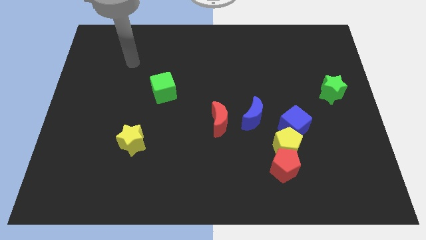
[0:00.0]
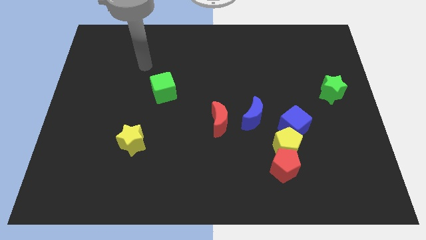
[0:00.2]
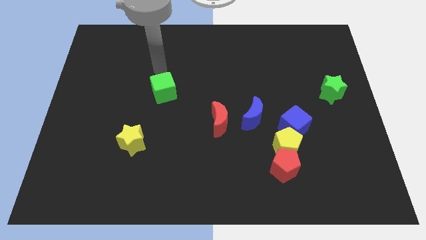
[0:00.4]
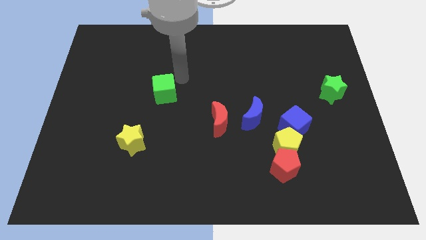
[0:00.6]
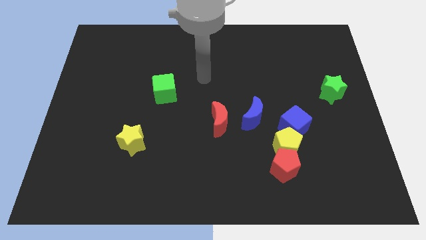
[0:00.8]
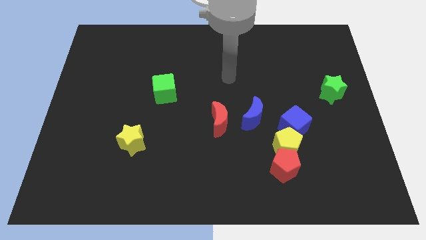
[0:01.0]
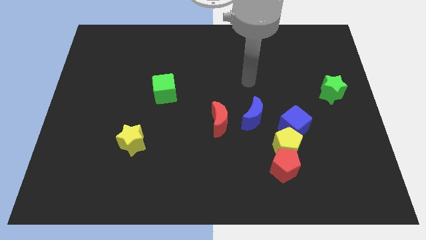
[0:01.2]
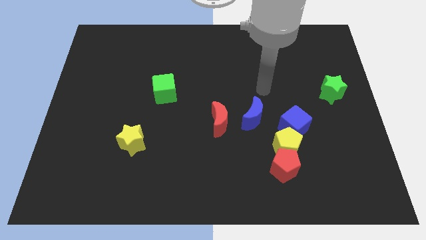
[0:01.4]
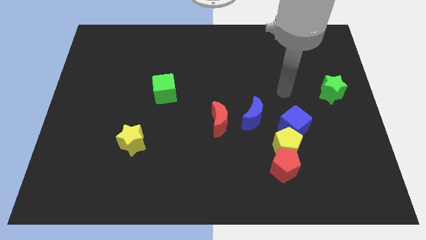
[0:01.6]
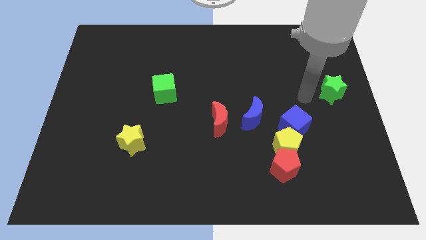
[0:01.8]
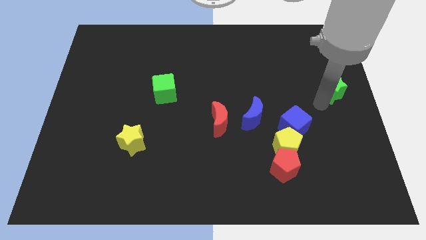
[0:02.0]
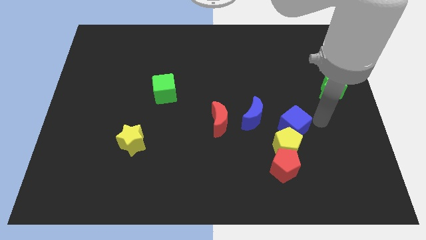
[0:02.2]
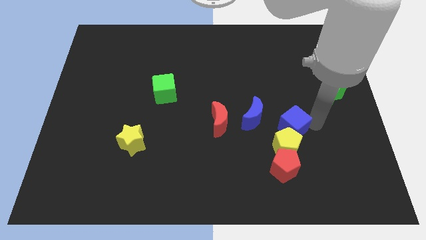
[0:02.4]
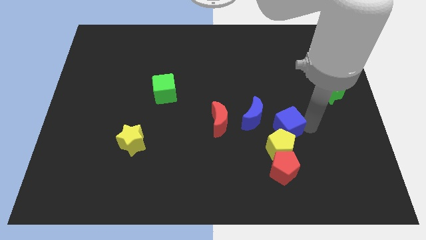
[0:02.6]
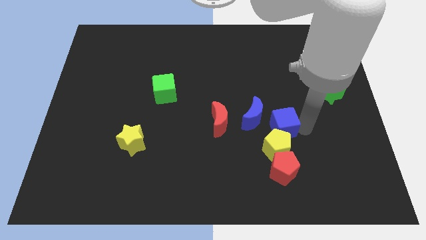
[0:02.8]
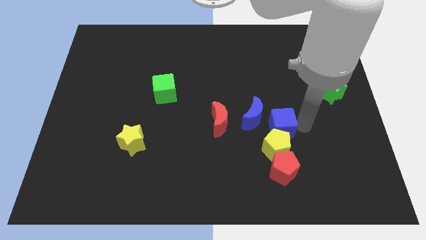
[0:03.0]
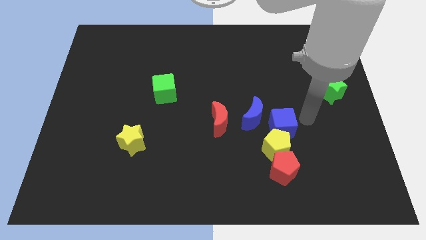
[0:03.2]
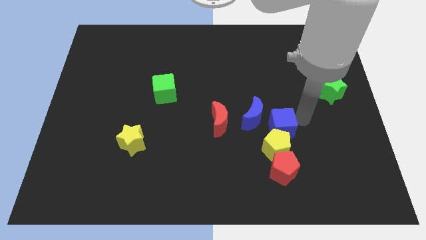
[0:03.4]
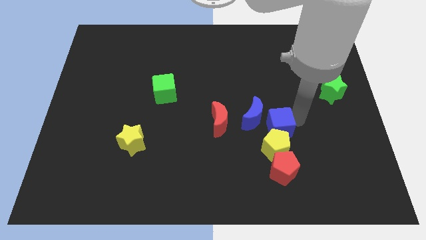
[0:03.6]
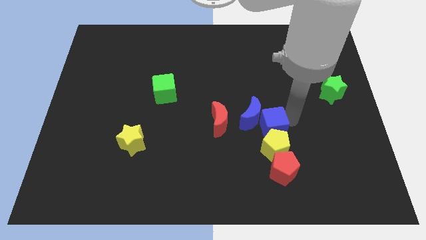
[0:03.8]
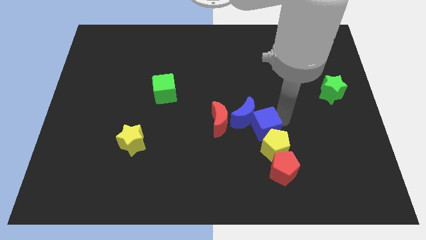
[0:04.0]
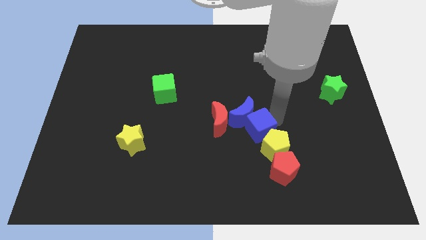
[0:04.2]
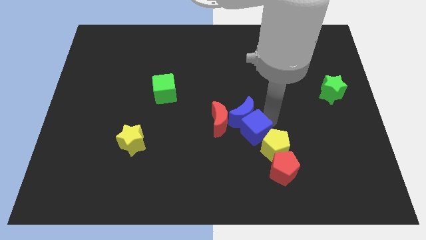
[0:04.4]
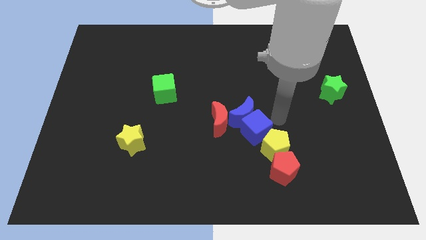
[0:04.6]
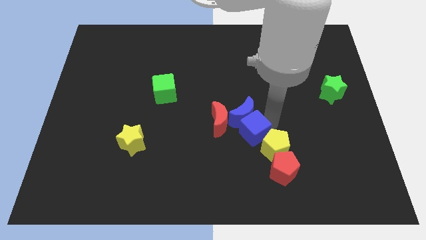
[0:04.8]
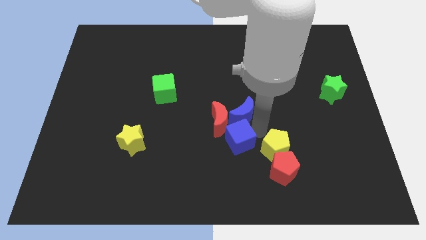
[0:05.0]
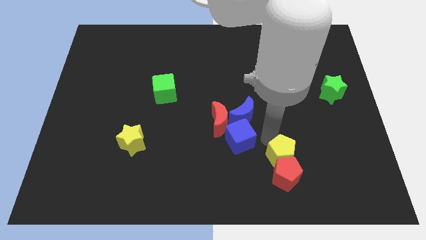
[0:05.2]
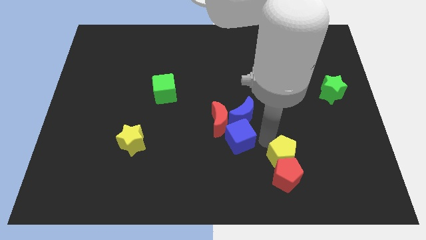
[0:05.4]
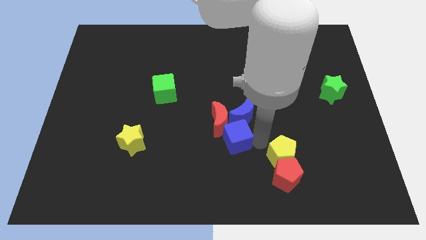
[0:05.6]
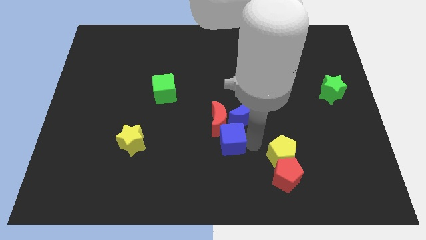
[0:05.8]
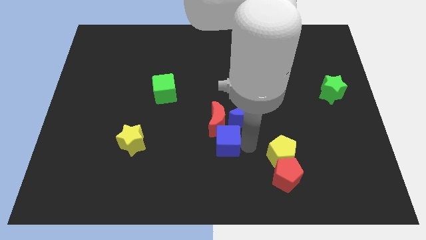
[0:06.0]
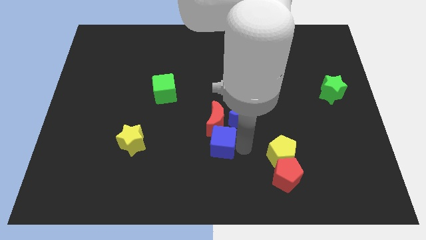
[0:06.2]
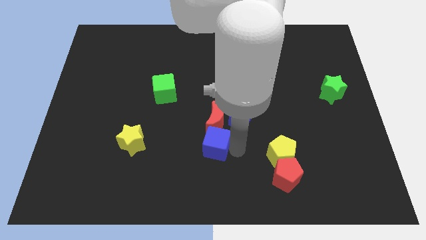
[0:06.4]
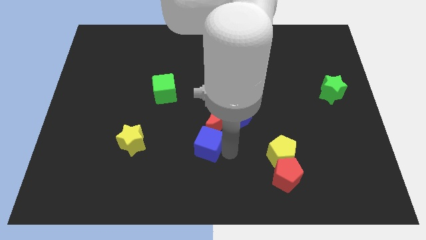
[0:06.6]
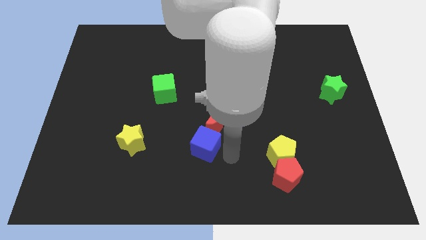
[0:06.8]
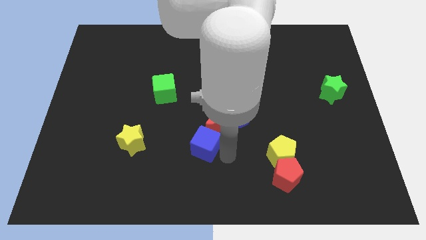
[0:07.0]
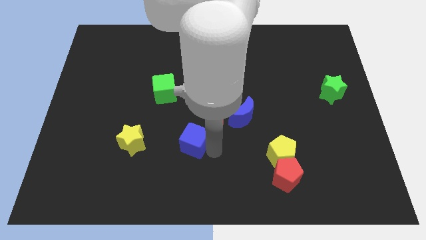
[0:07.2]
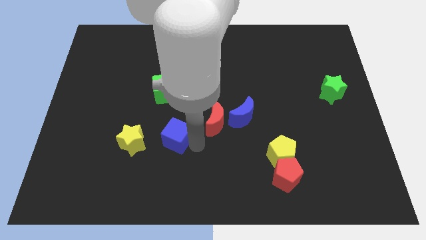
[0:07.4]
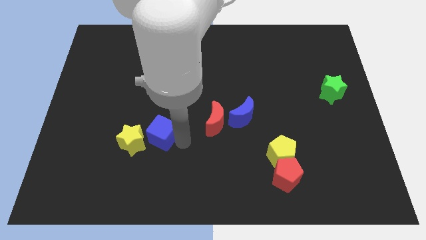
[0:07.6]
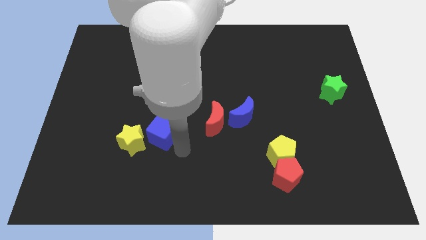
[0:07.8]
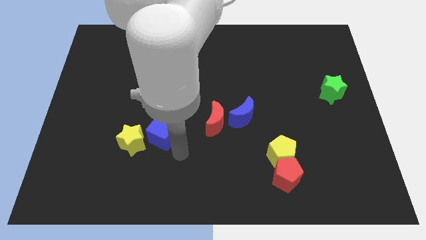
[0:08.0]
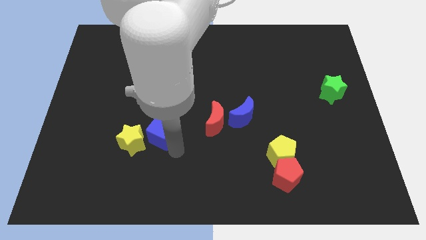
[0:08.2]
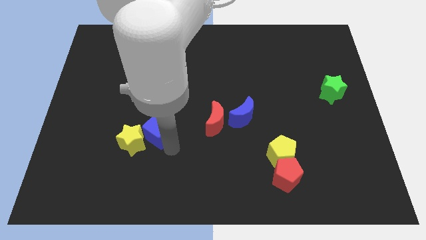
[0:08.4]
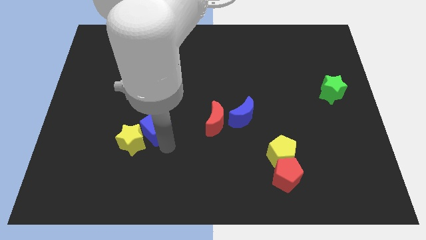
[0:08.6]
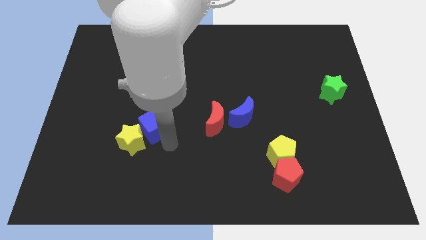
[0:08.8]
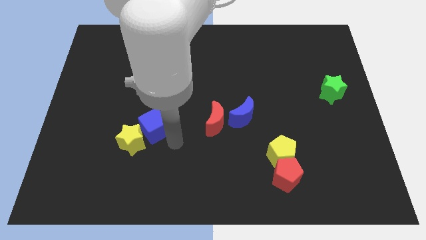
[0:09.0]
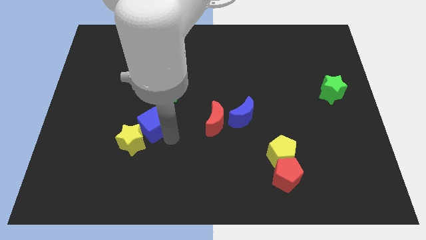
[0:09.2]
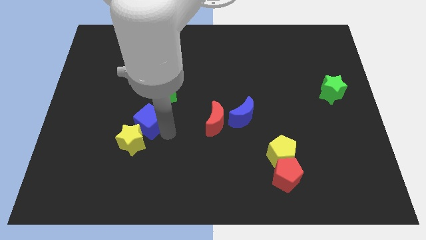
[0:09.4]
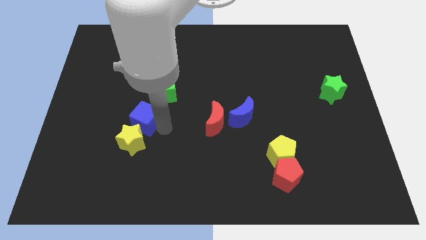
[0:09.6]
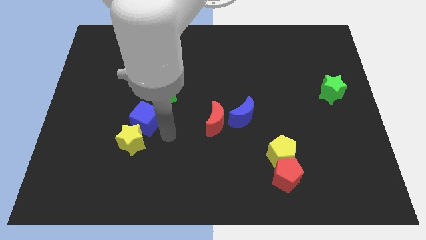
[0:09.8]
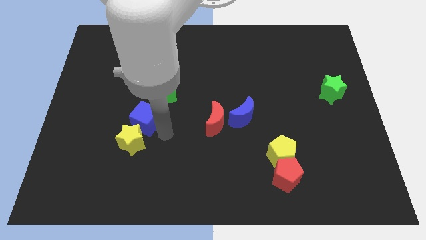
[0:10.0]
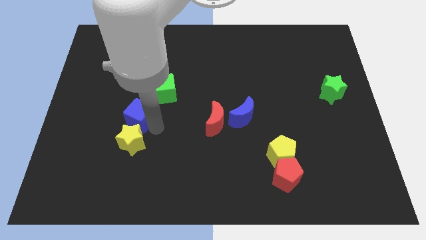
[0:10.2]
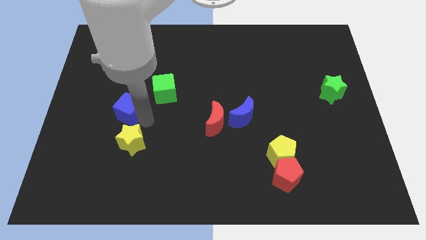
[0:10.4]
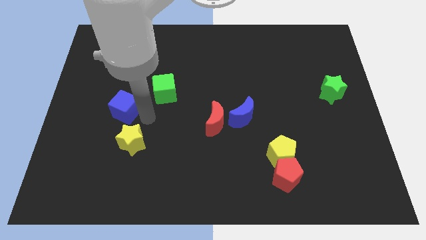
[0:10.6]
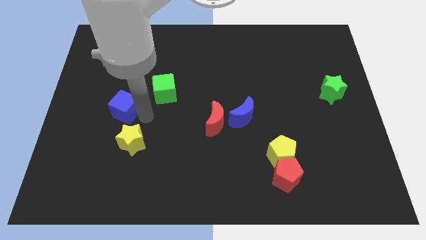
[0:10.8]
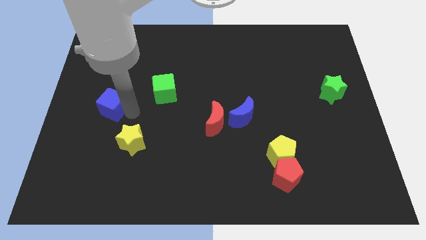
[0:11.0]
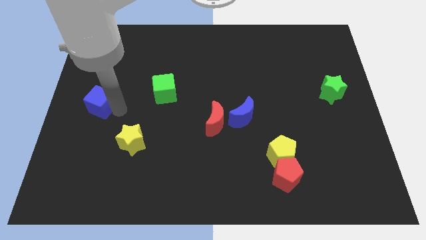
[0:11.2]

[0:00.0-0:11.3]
put the blue cube to the left side of the board
